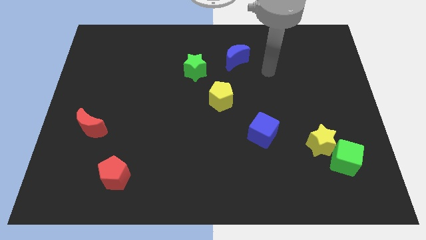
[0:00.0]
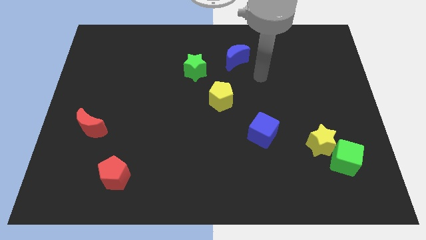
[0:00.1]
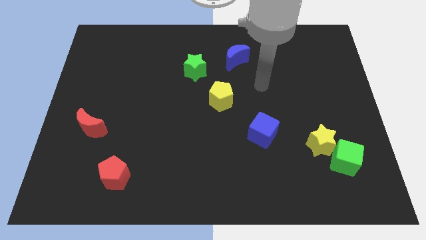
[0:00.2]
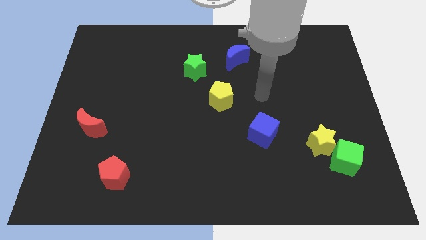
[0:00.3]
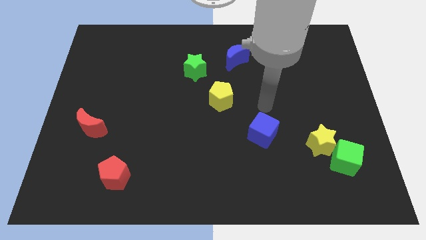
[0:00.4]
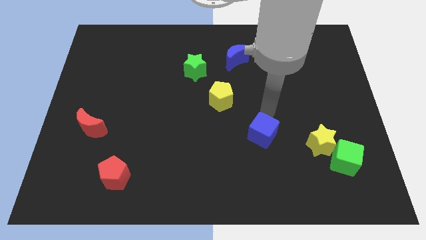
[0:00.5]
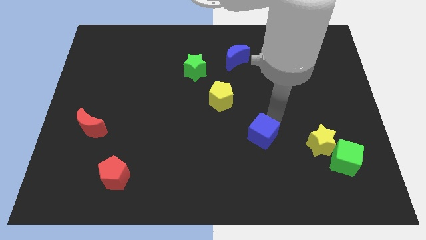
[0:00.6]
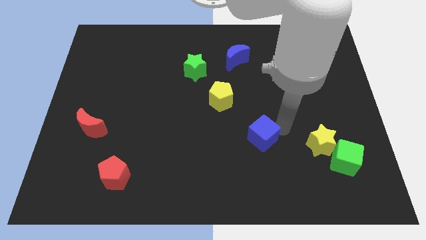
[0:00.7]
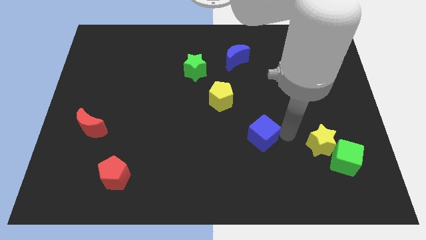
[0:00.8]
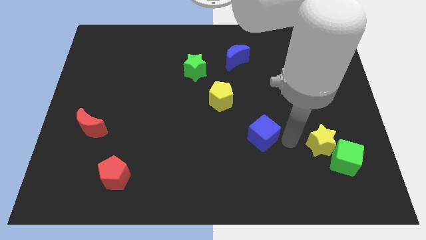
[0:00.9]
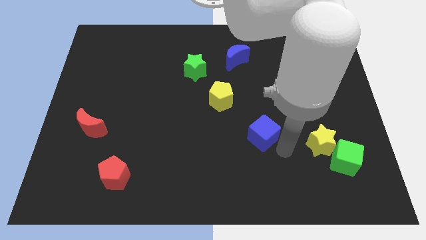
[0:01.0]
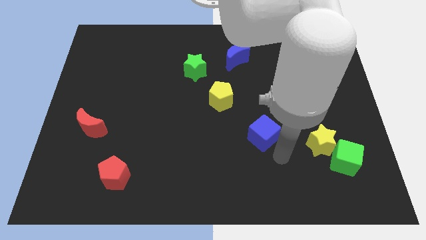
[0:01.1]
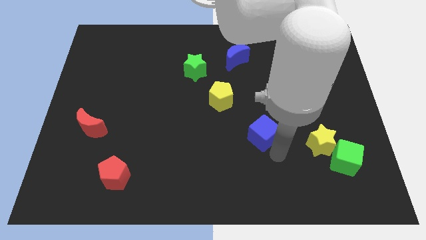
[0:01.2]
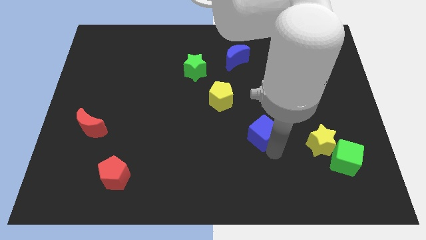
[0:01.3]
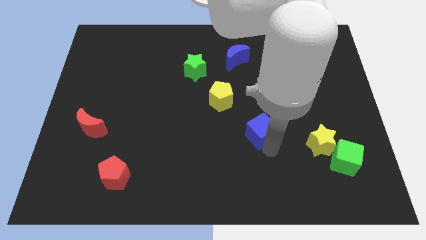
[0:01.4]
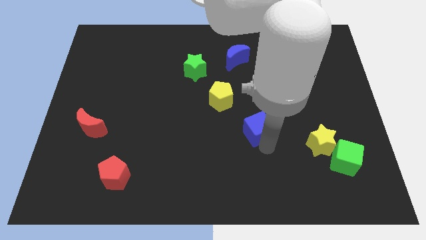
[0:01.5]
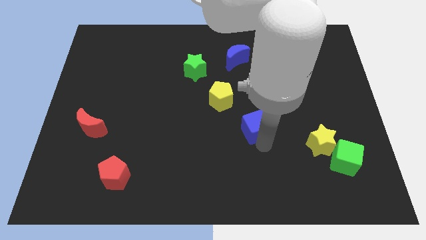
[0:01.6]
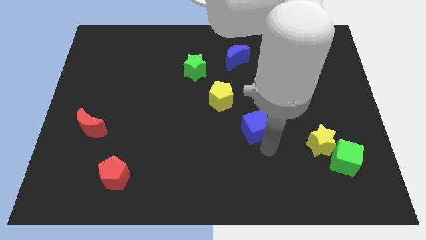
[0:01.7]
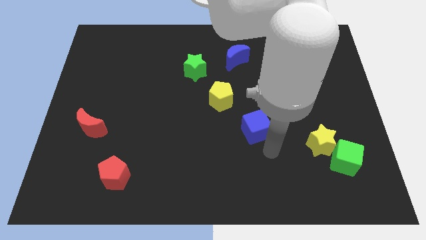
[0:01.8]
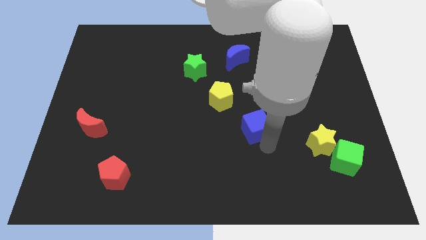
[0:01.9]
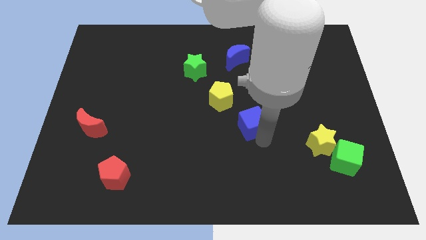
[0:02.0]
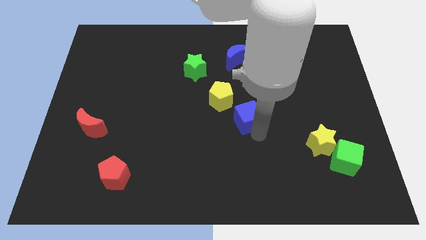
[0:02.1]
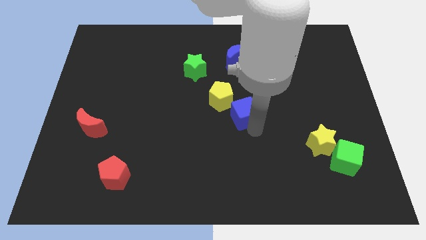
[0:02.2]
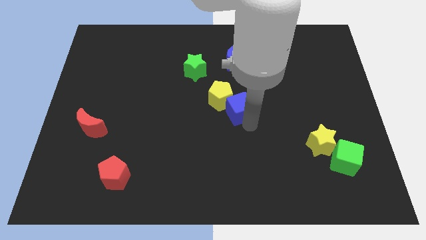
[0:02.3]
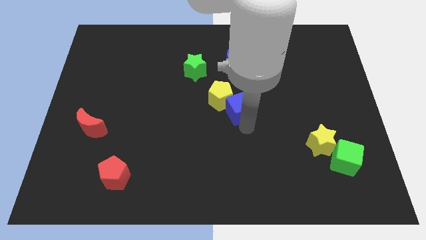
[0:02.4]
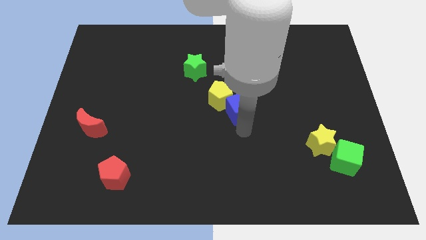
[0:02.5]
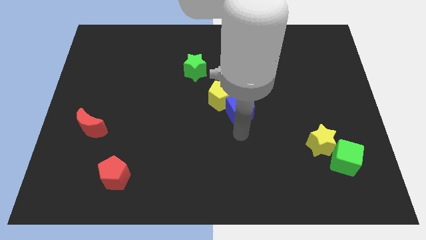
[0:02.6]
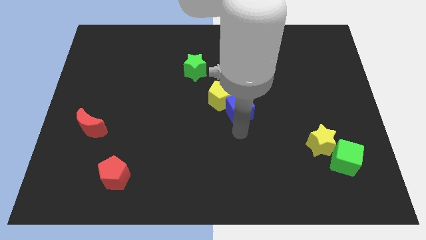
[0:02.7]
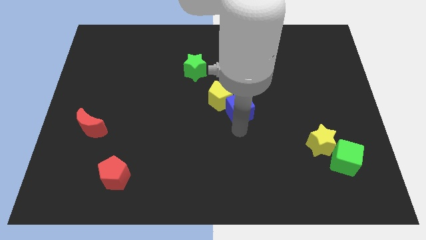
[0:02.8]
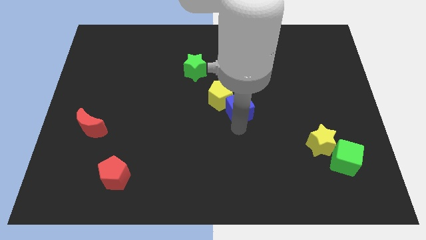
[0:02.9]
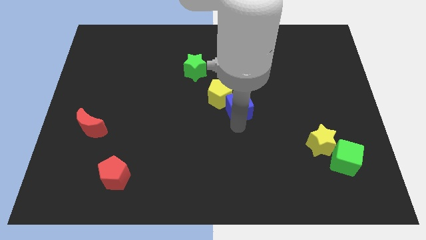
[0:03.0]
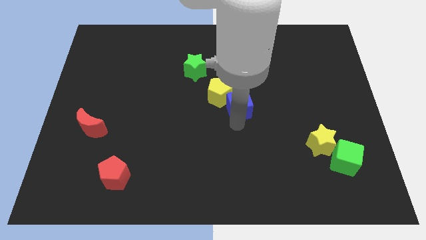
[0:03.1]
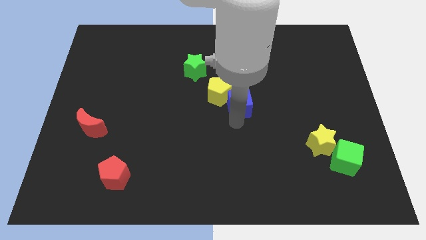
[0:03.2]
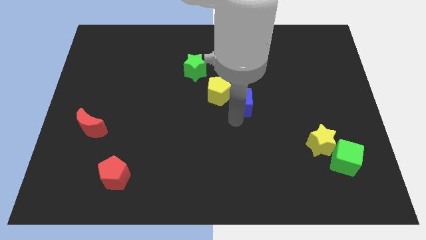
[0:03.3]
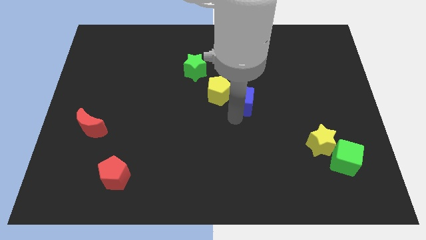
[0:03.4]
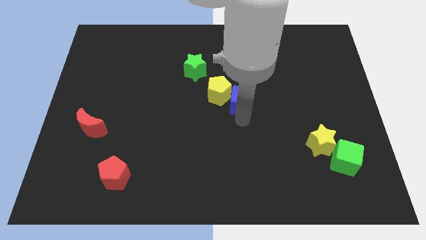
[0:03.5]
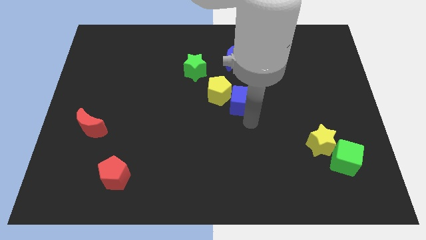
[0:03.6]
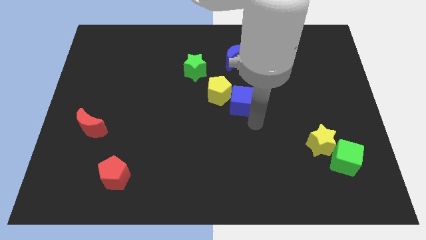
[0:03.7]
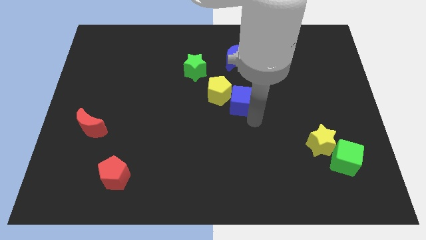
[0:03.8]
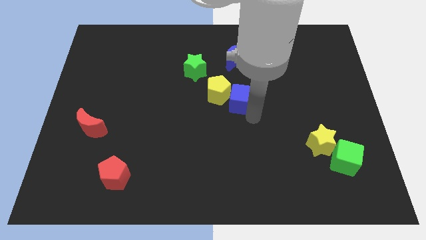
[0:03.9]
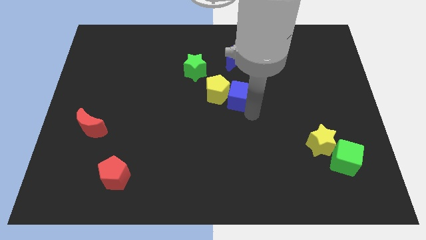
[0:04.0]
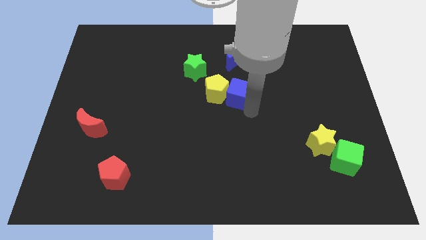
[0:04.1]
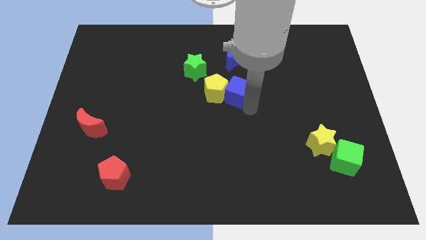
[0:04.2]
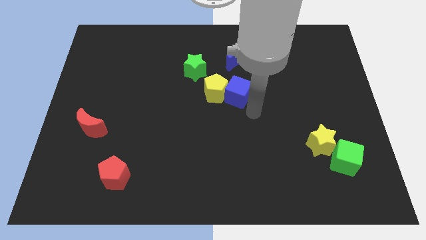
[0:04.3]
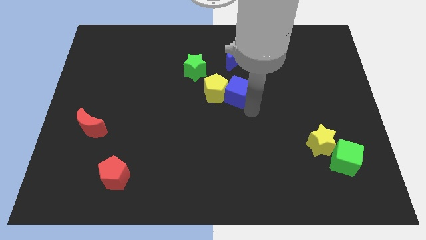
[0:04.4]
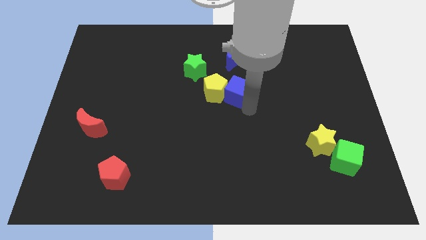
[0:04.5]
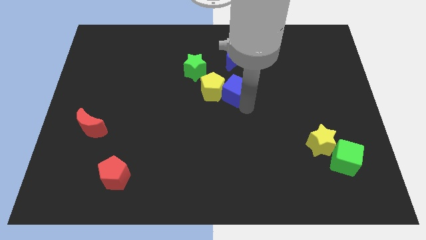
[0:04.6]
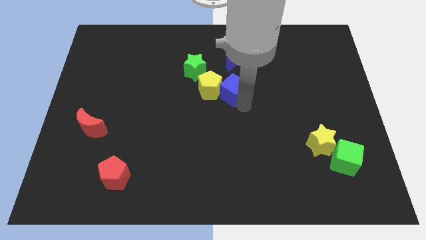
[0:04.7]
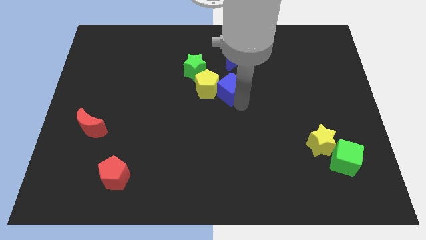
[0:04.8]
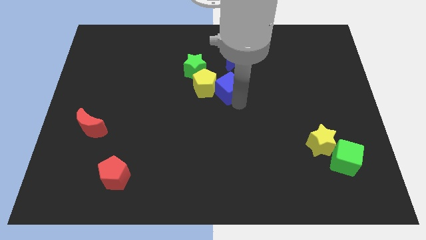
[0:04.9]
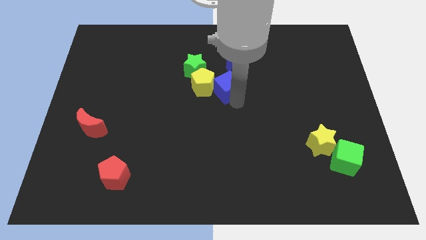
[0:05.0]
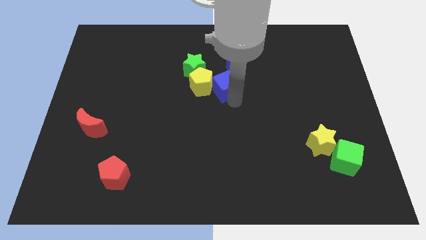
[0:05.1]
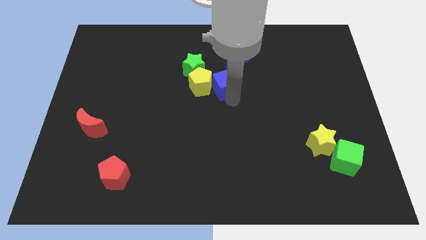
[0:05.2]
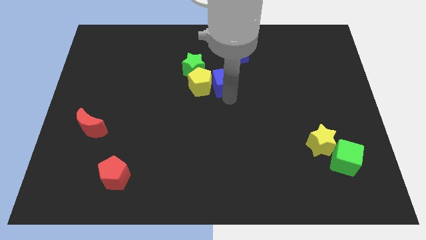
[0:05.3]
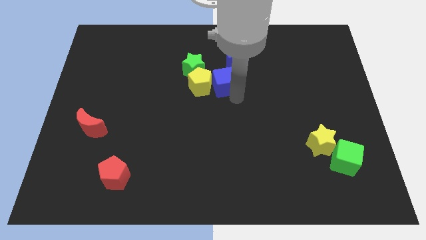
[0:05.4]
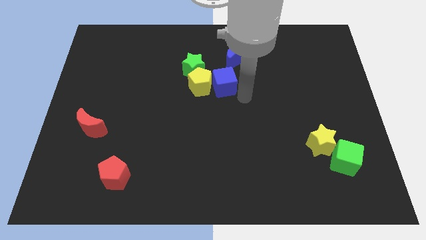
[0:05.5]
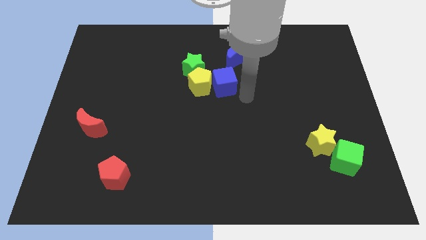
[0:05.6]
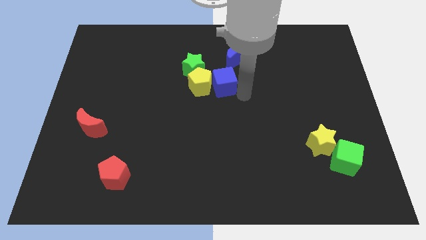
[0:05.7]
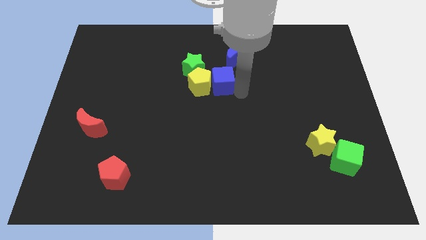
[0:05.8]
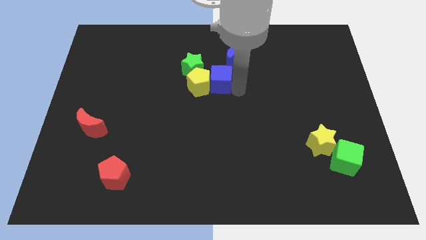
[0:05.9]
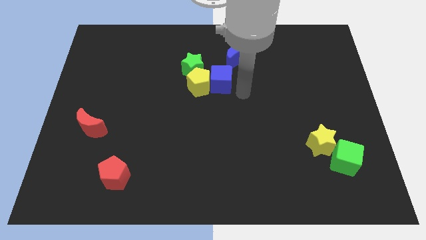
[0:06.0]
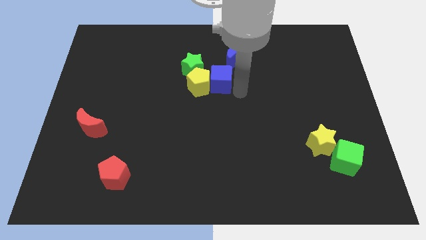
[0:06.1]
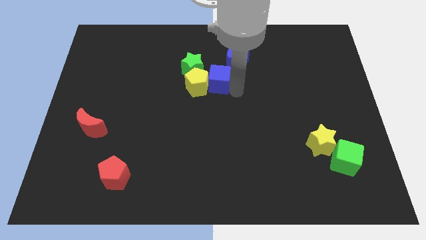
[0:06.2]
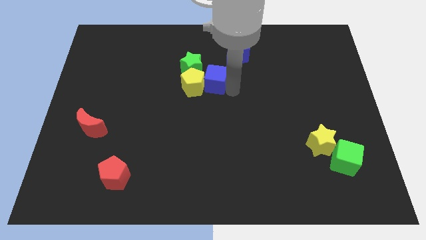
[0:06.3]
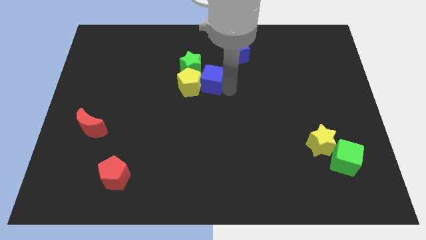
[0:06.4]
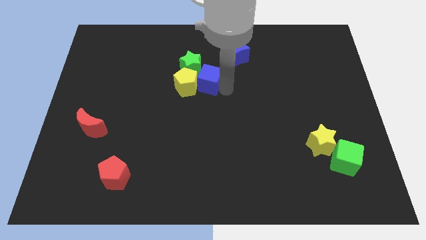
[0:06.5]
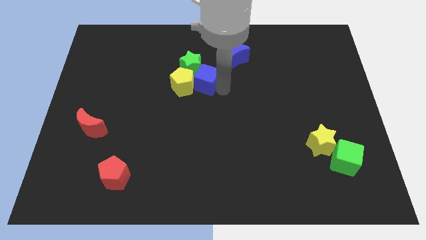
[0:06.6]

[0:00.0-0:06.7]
put the blue cube next to the green star
